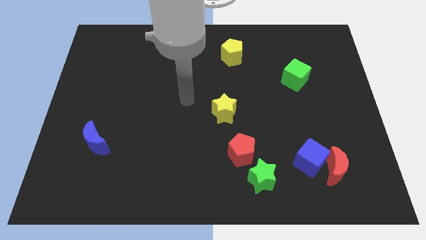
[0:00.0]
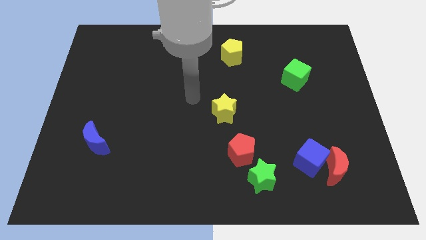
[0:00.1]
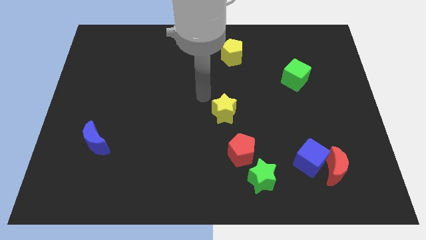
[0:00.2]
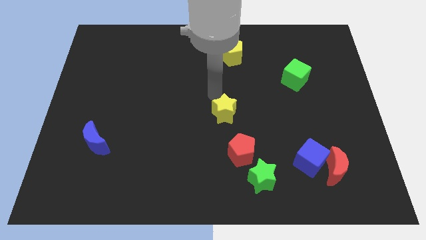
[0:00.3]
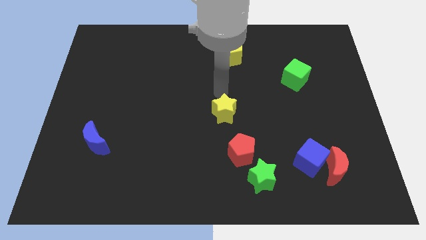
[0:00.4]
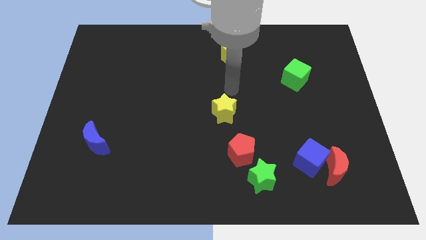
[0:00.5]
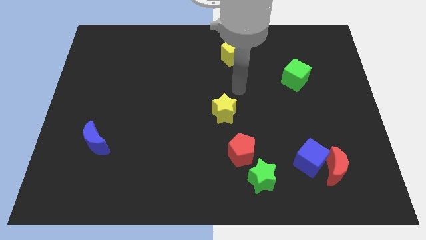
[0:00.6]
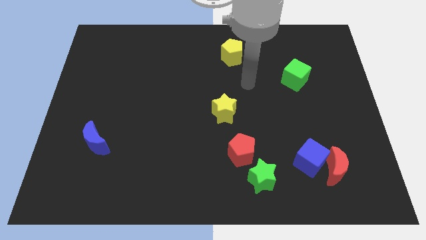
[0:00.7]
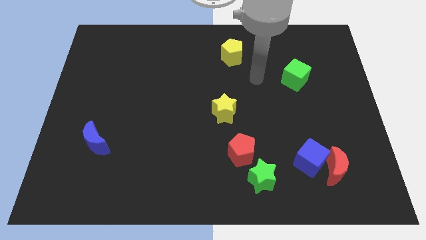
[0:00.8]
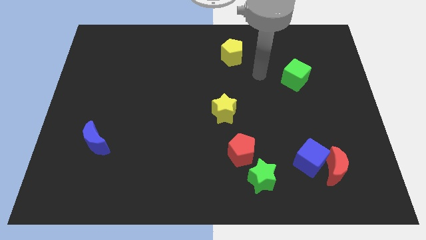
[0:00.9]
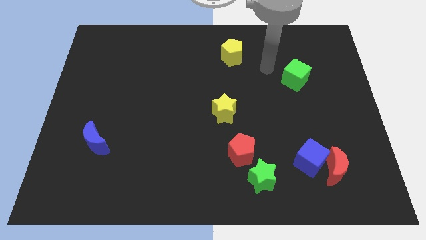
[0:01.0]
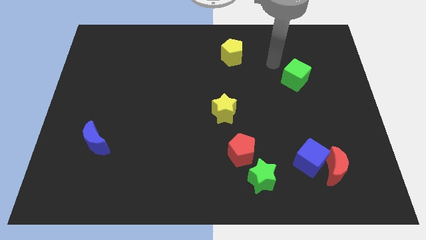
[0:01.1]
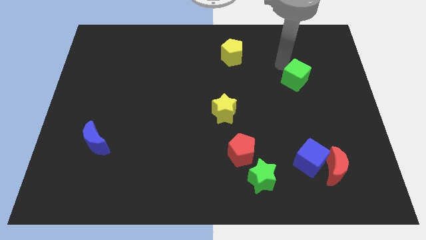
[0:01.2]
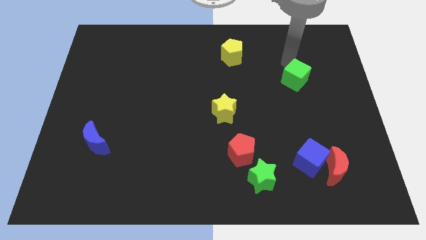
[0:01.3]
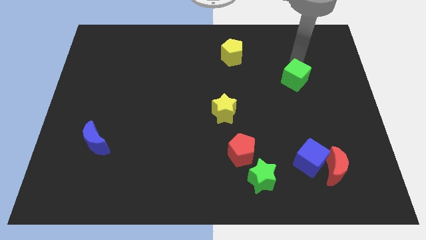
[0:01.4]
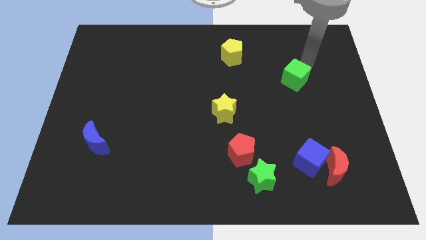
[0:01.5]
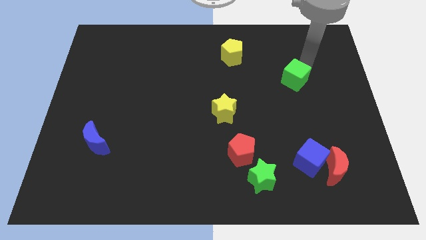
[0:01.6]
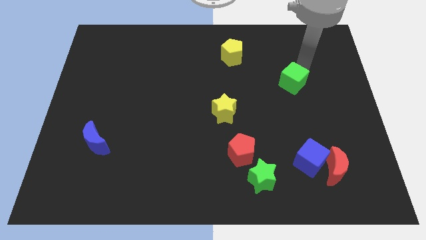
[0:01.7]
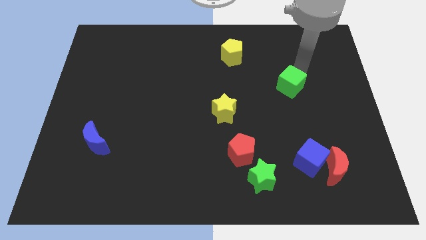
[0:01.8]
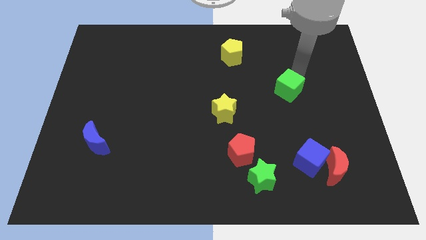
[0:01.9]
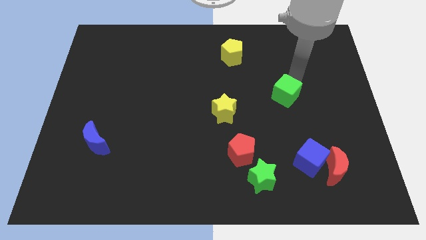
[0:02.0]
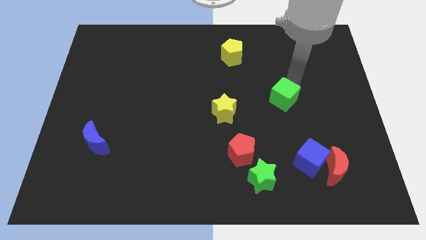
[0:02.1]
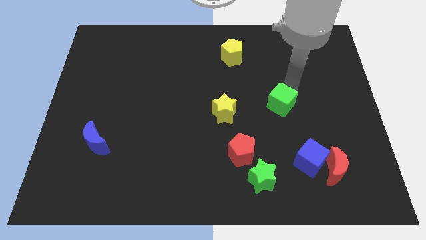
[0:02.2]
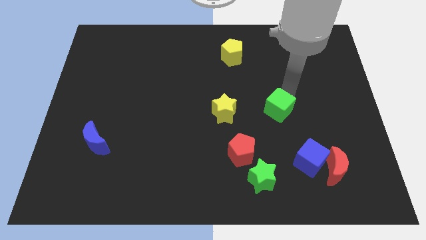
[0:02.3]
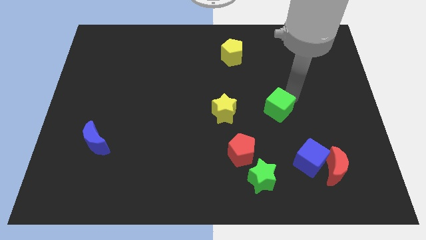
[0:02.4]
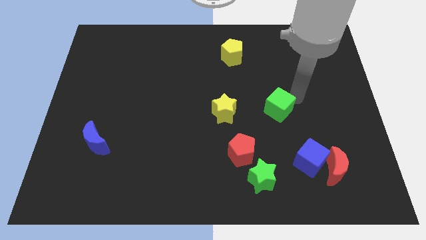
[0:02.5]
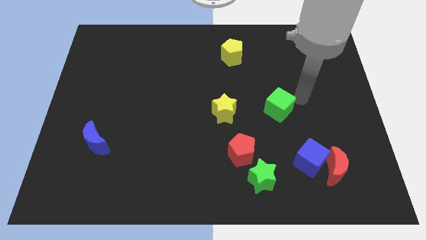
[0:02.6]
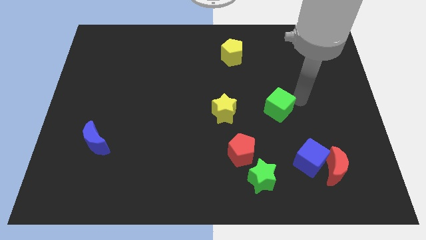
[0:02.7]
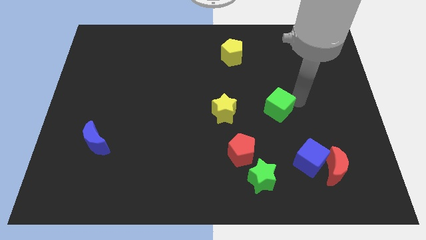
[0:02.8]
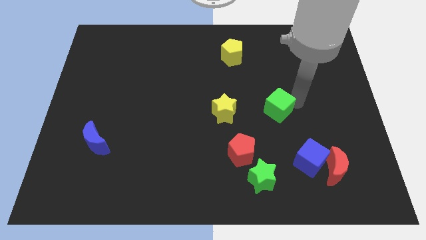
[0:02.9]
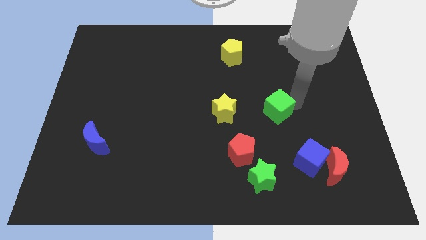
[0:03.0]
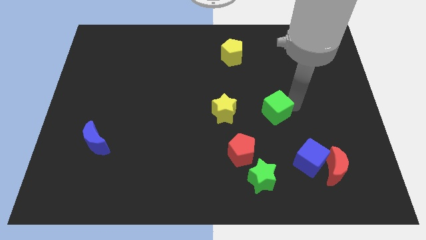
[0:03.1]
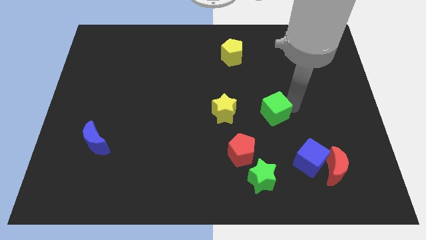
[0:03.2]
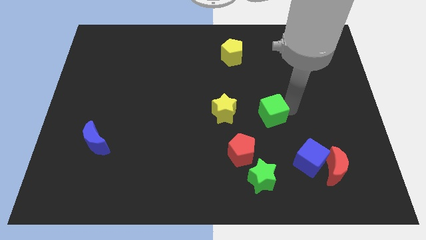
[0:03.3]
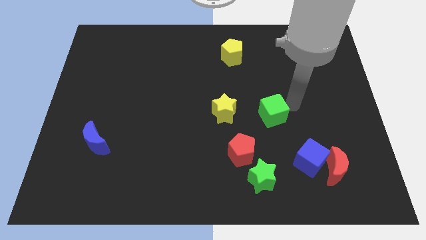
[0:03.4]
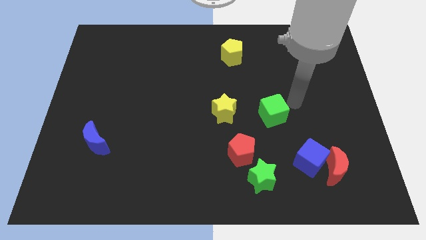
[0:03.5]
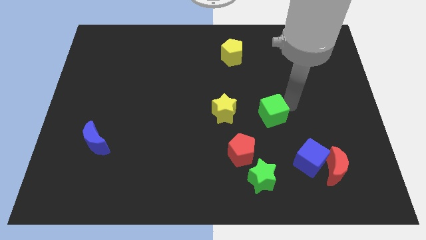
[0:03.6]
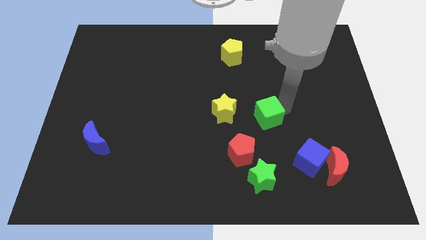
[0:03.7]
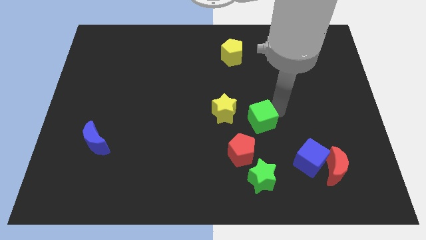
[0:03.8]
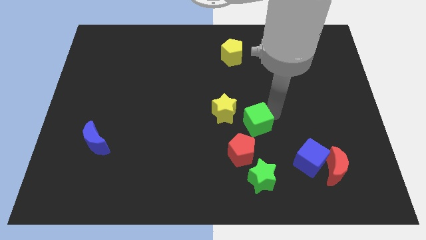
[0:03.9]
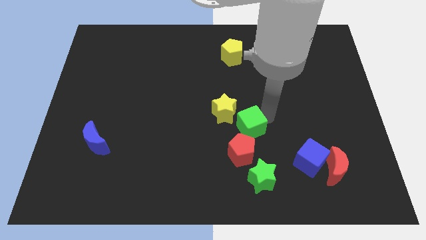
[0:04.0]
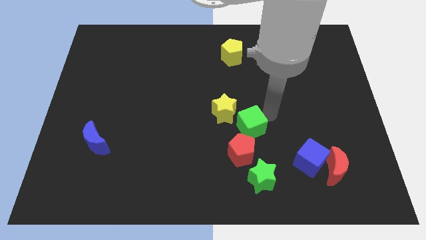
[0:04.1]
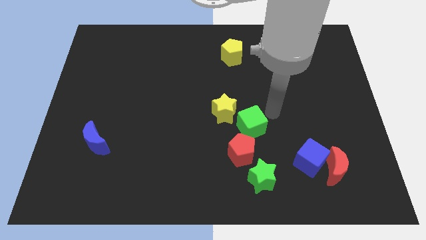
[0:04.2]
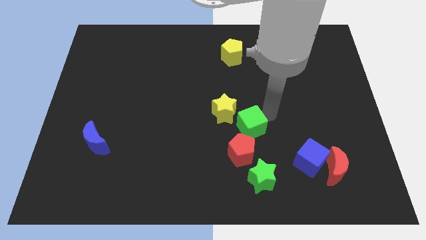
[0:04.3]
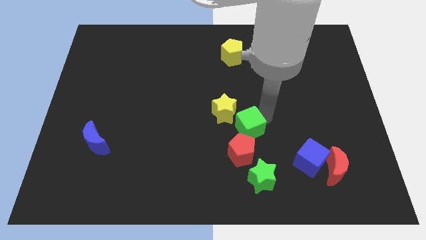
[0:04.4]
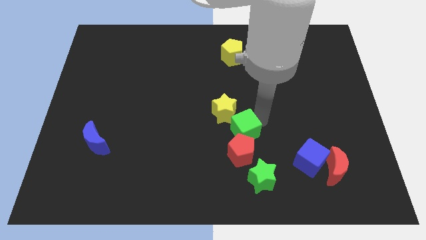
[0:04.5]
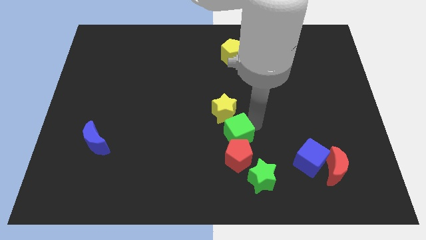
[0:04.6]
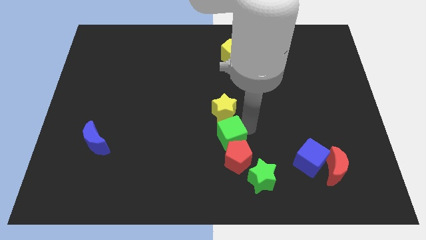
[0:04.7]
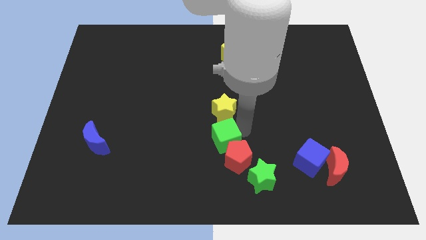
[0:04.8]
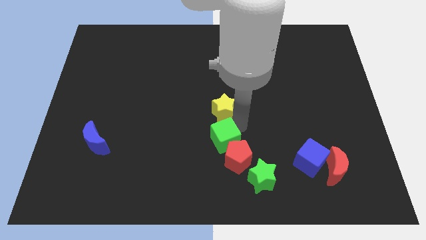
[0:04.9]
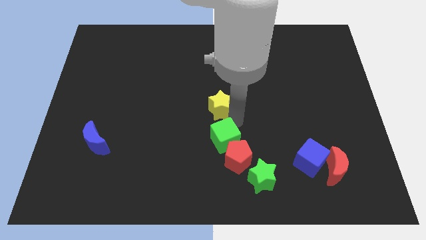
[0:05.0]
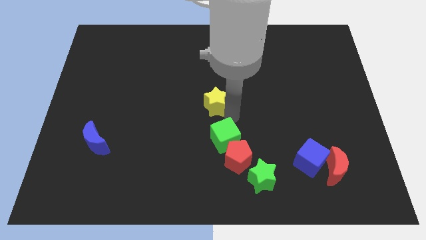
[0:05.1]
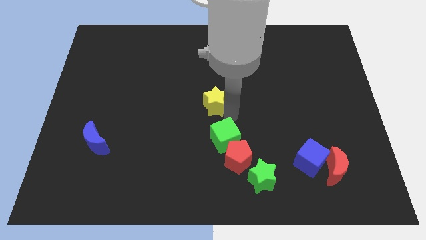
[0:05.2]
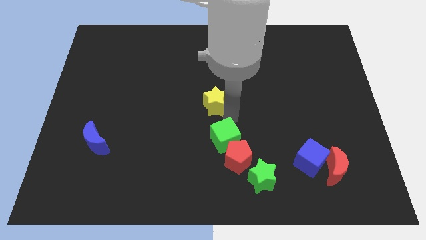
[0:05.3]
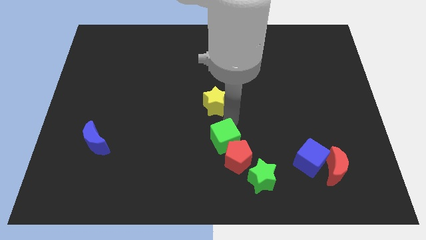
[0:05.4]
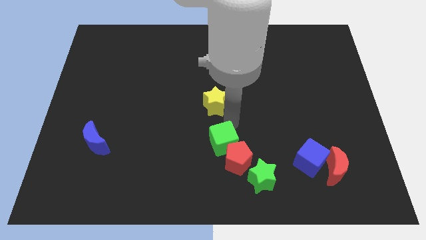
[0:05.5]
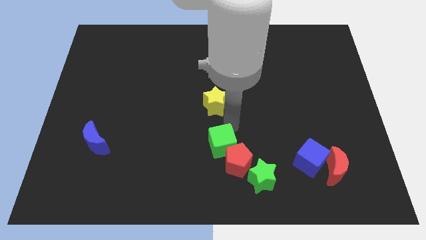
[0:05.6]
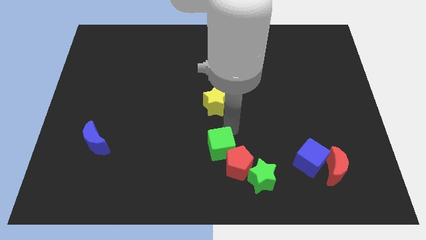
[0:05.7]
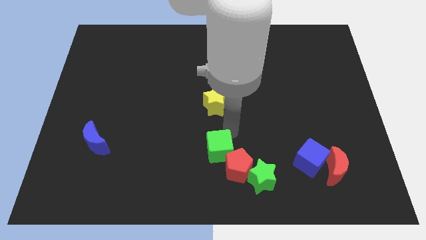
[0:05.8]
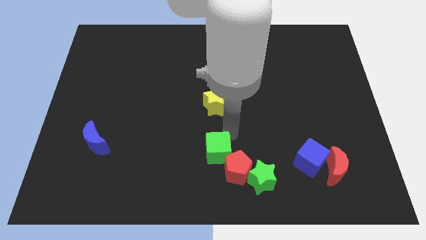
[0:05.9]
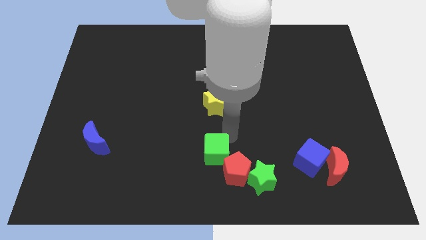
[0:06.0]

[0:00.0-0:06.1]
put the green cube to the bottom
